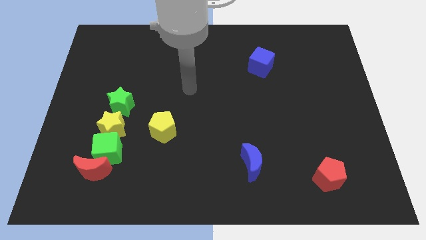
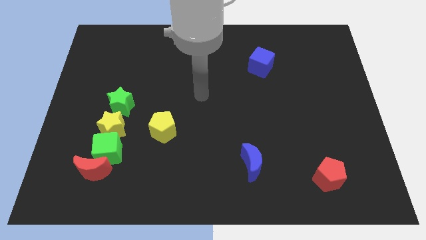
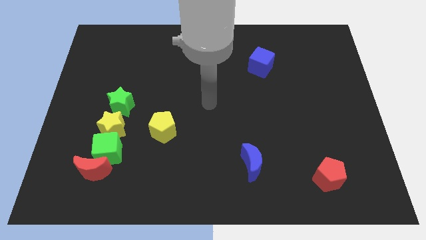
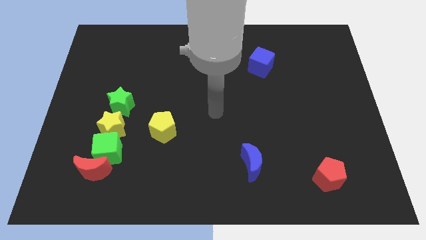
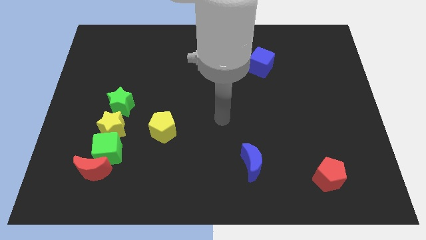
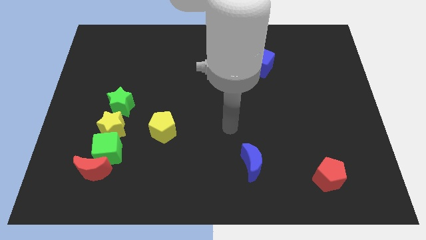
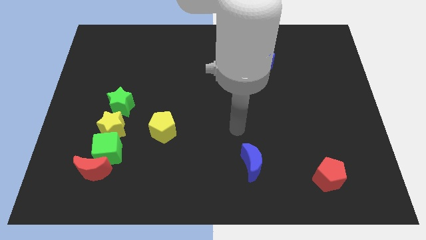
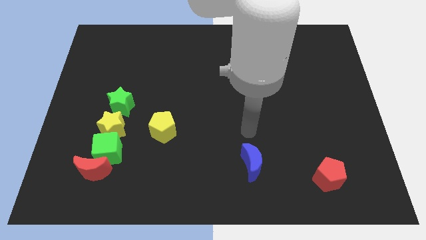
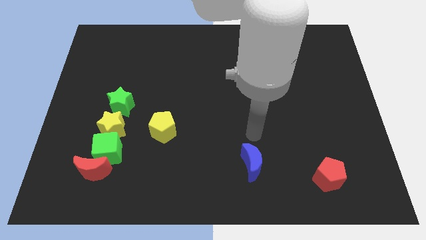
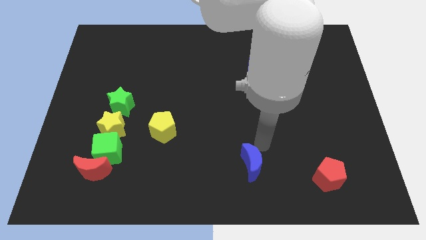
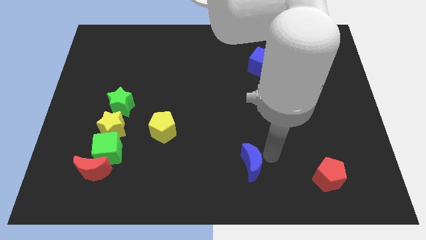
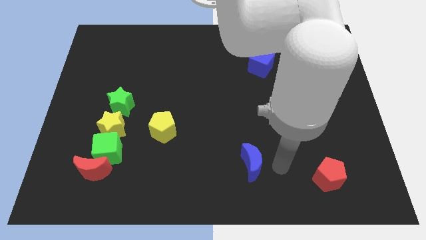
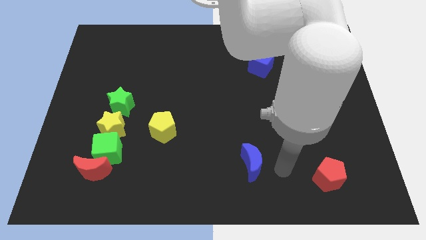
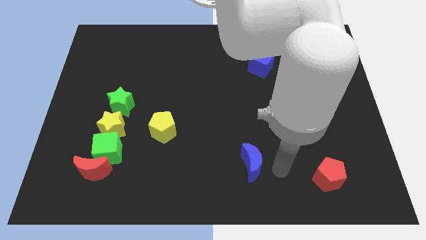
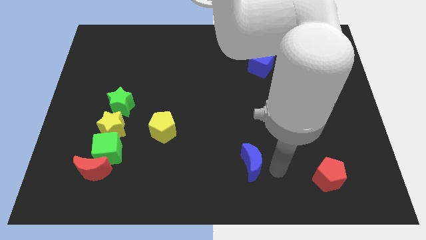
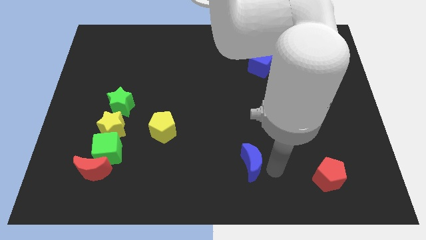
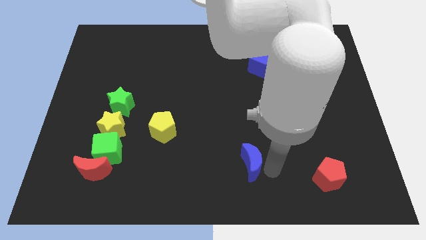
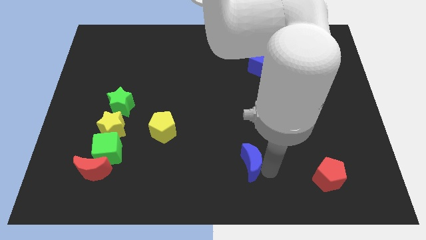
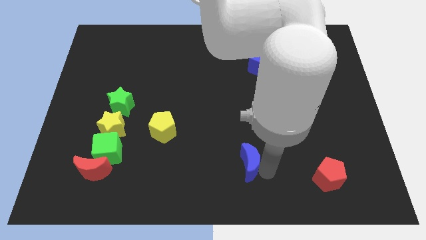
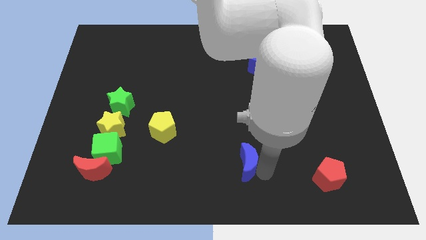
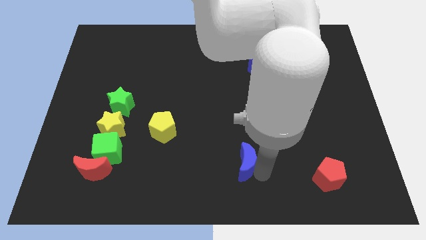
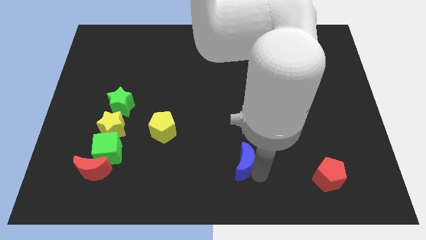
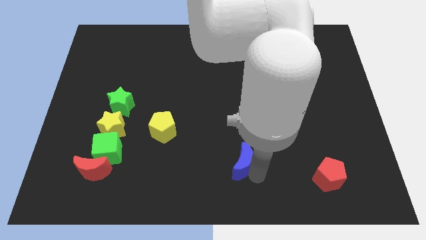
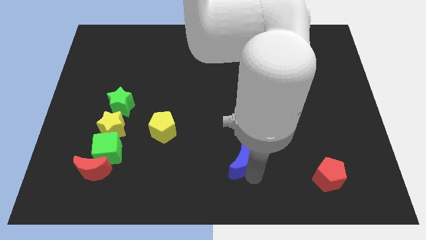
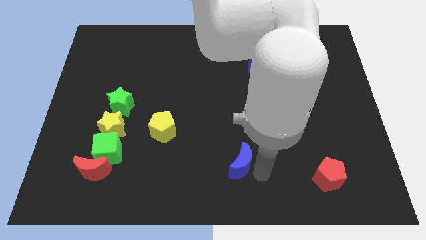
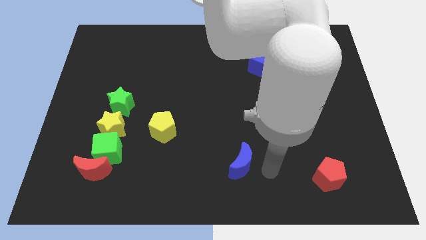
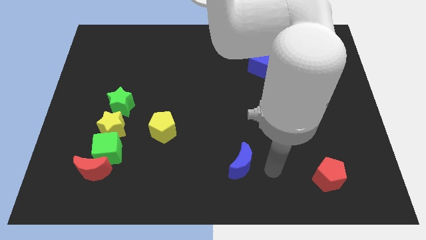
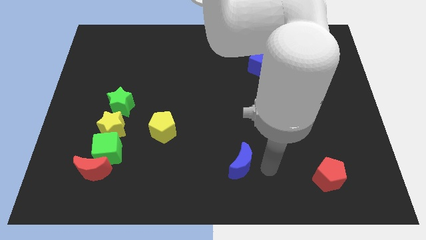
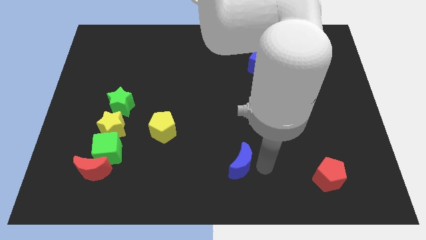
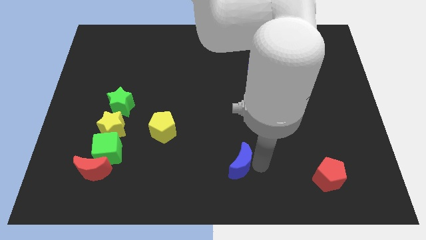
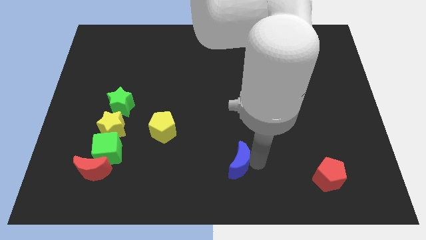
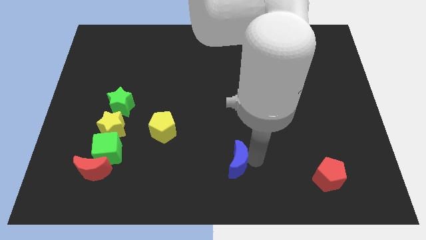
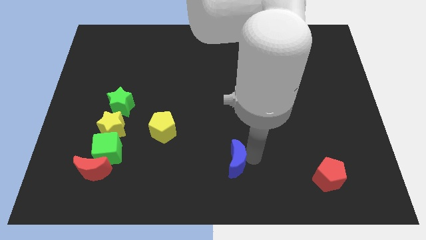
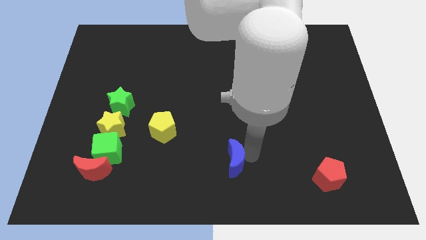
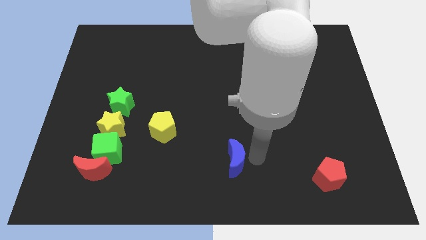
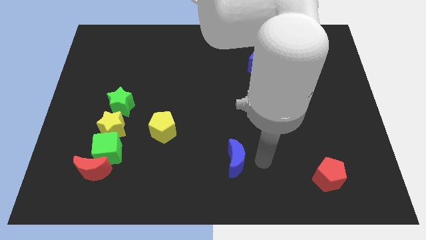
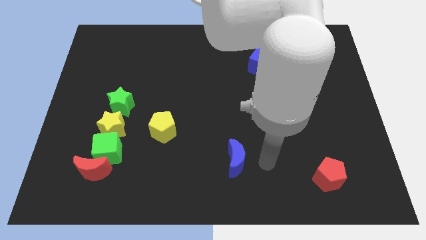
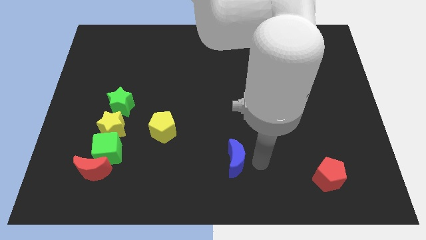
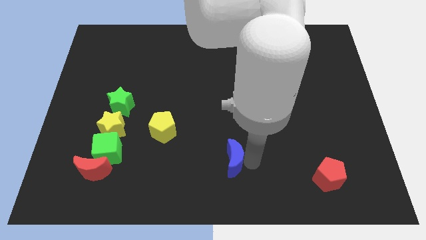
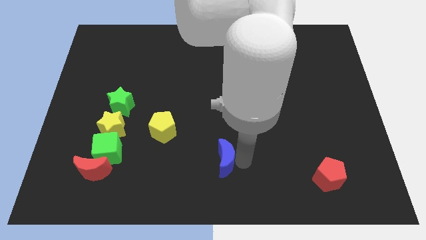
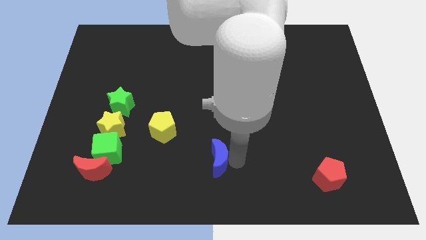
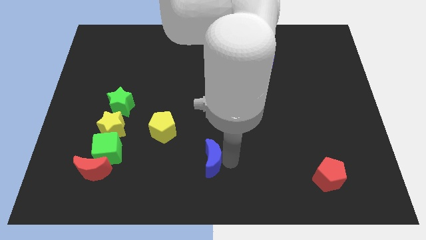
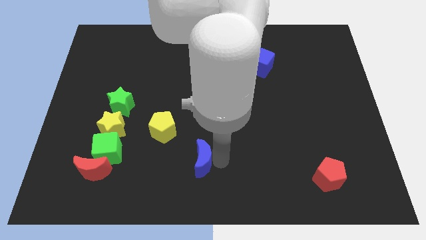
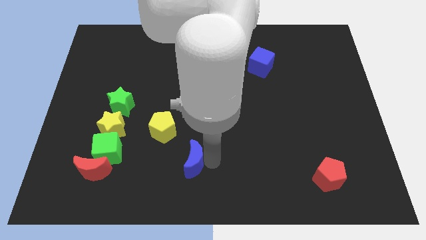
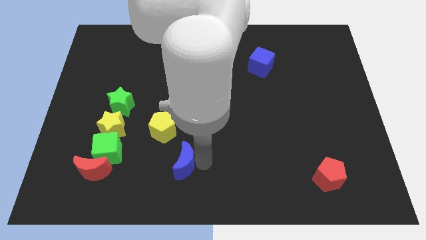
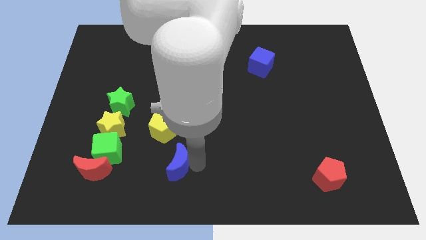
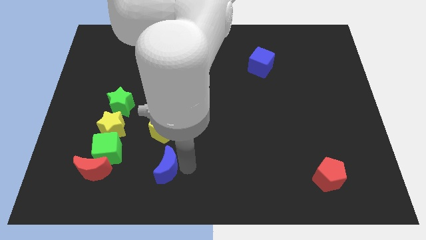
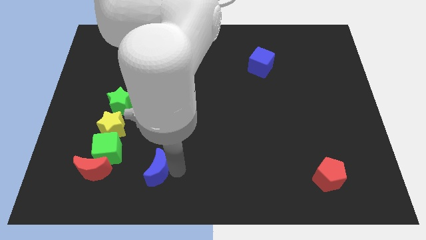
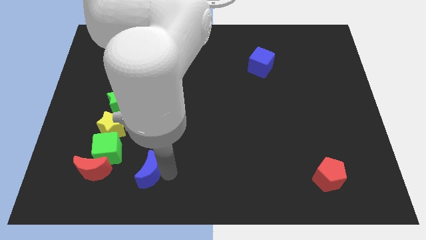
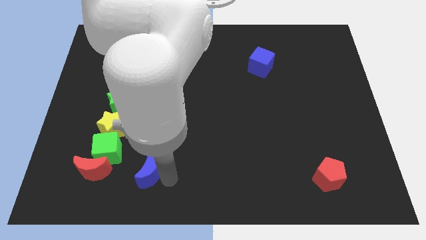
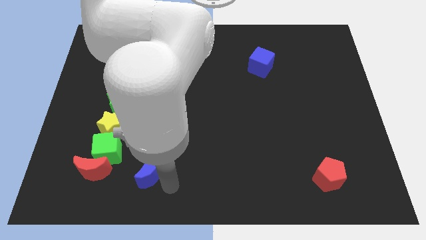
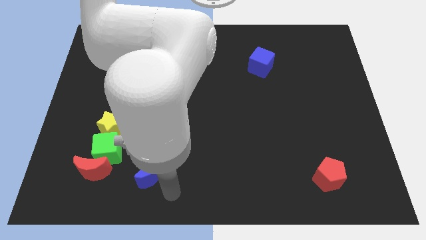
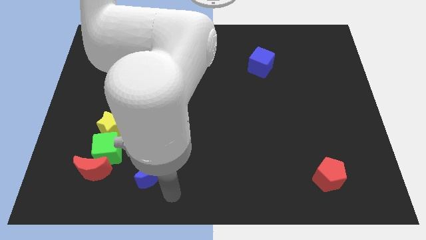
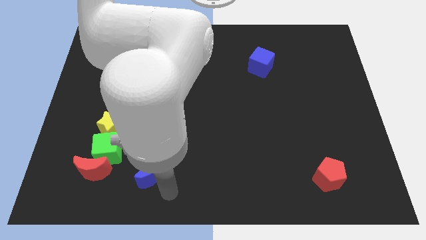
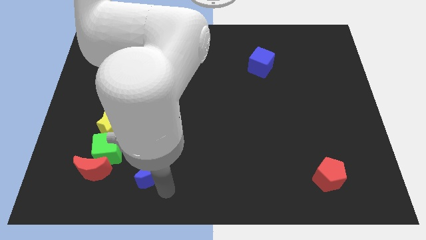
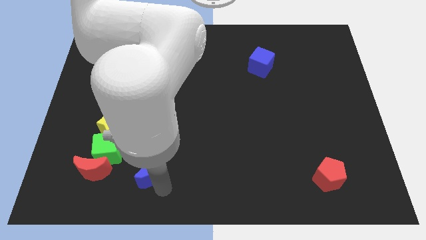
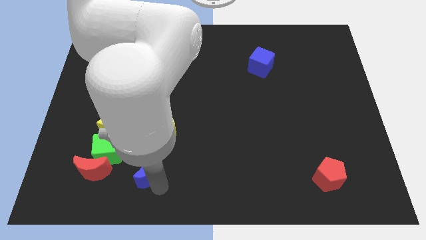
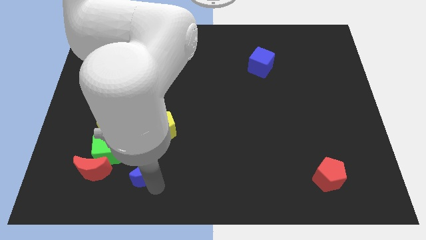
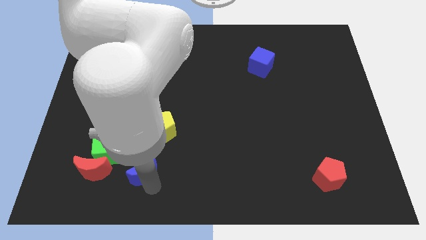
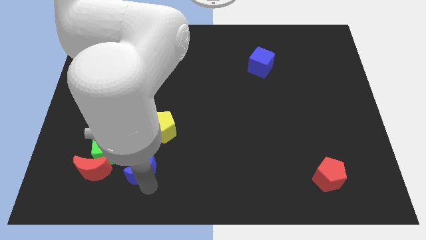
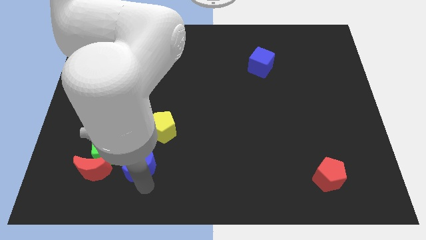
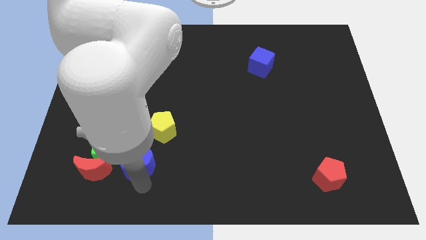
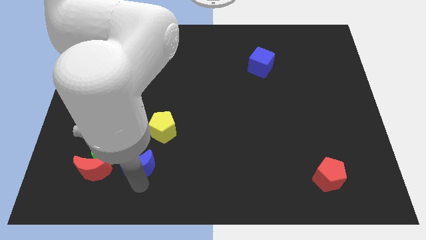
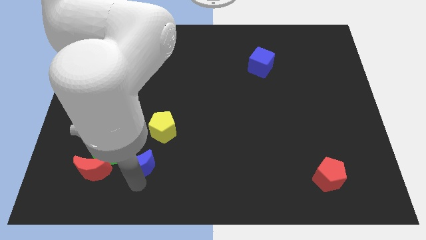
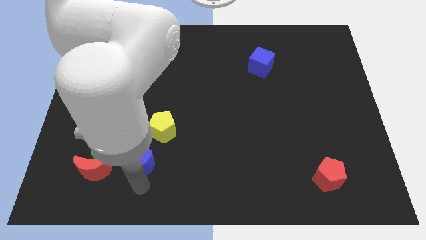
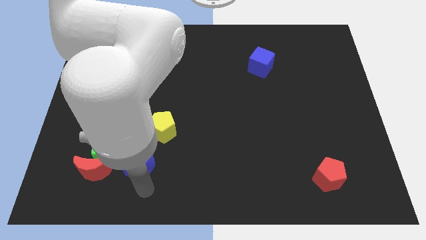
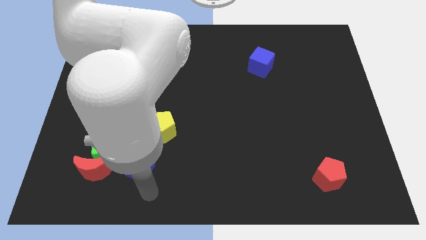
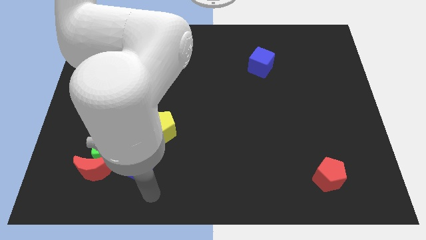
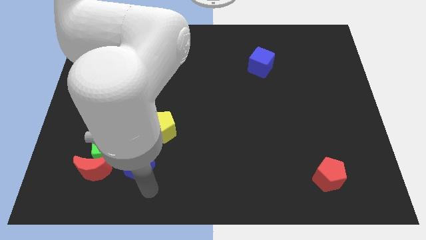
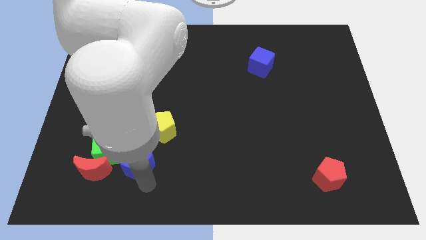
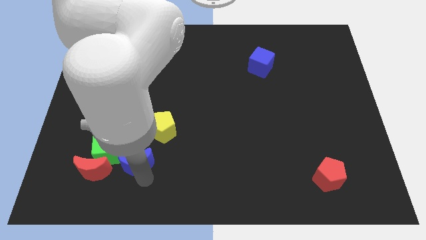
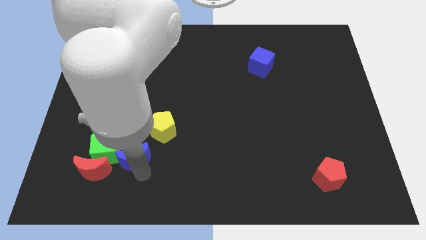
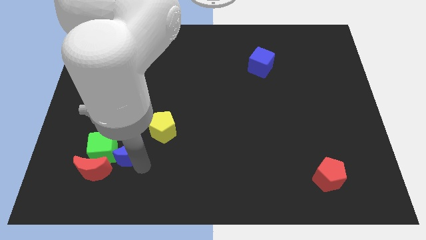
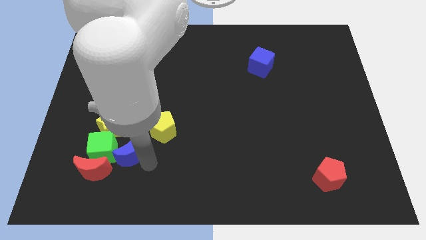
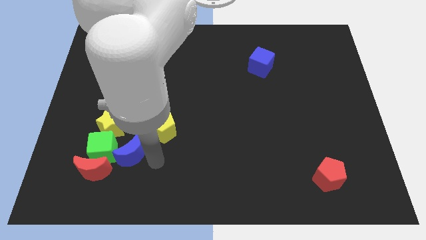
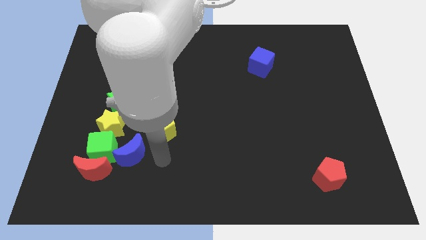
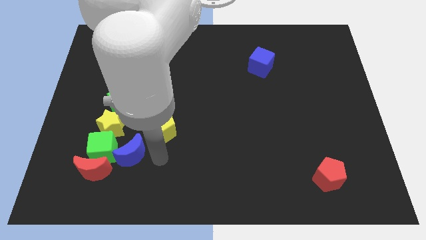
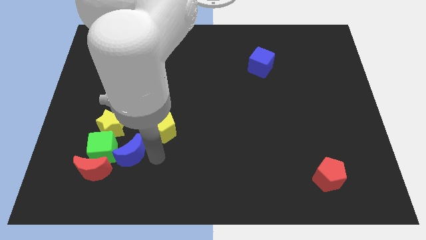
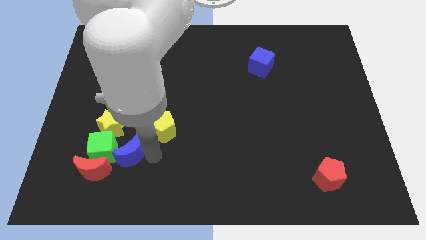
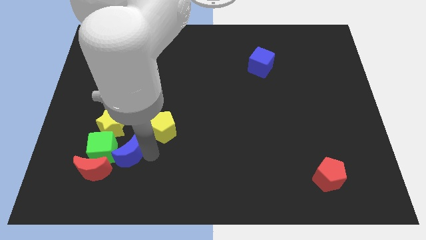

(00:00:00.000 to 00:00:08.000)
slide the blue moon to the green cube
